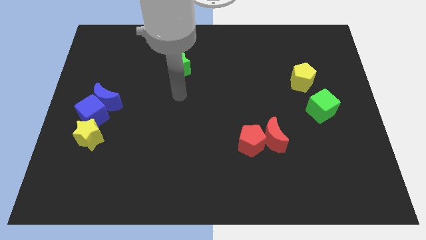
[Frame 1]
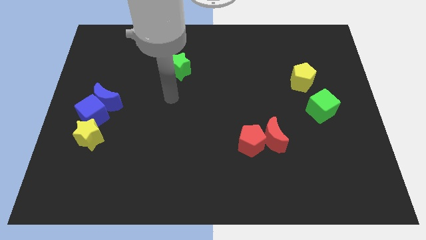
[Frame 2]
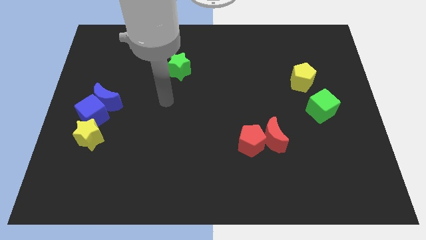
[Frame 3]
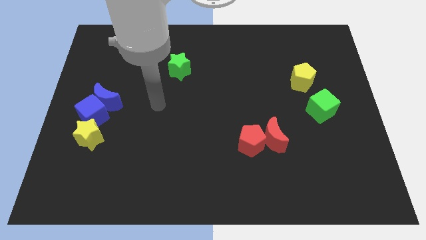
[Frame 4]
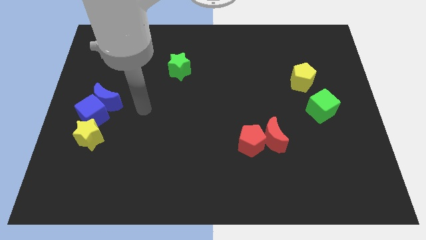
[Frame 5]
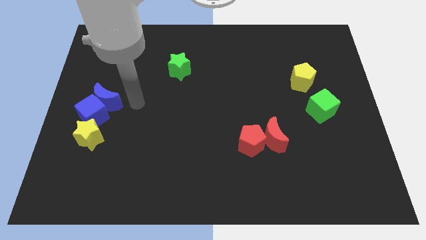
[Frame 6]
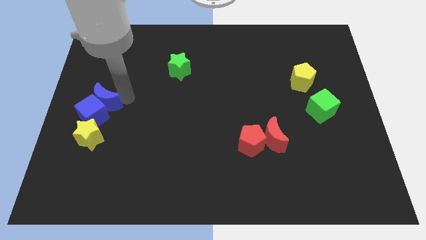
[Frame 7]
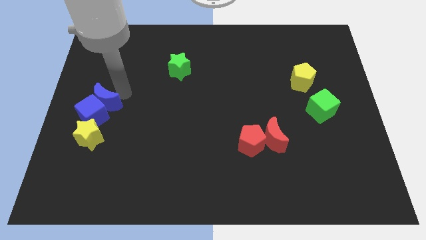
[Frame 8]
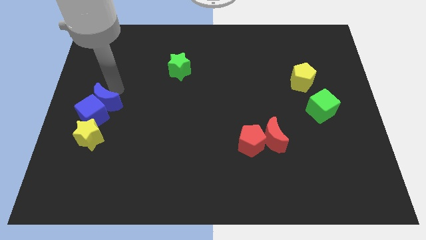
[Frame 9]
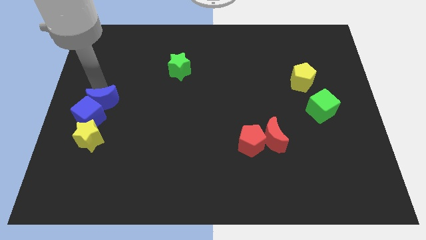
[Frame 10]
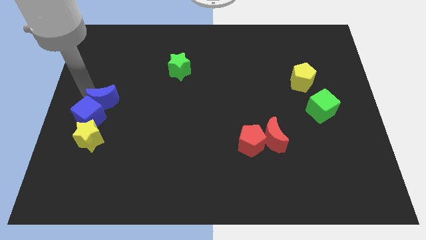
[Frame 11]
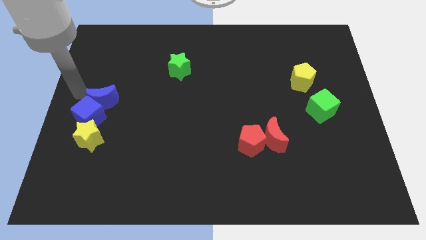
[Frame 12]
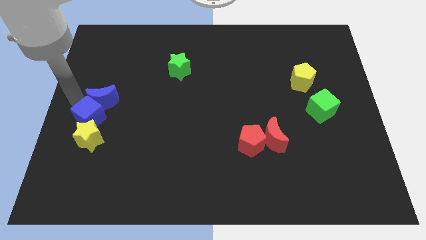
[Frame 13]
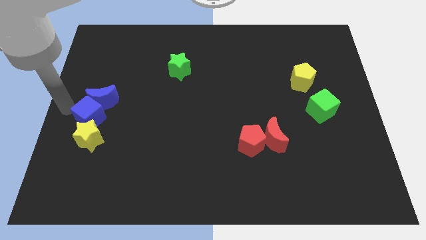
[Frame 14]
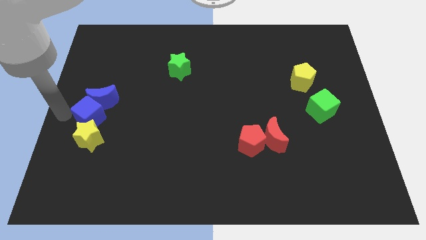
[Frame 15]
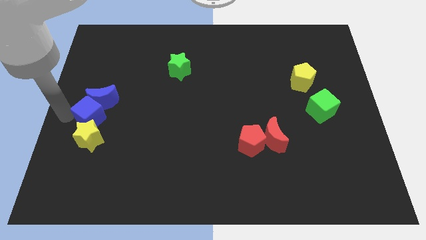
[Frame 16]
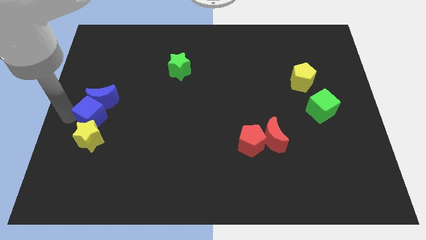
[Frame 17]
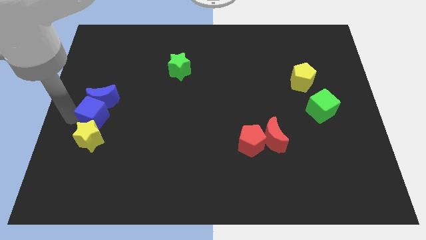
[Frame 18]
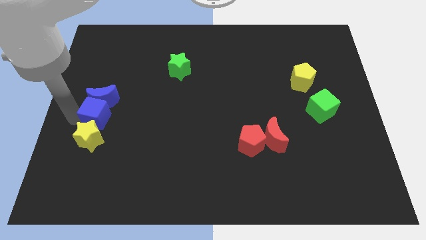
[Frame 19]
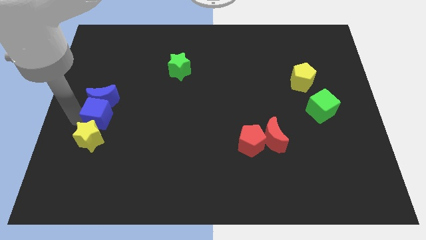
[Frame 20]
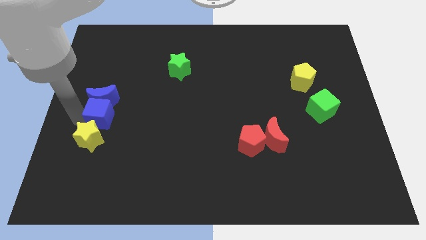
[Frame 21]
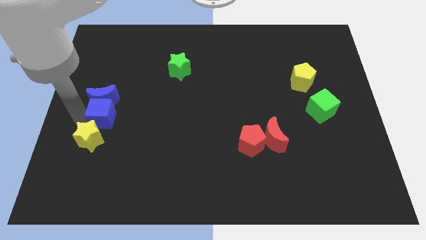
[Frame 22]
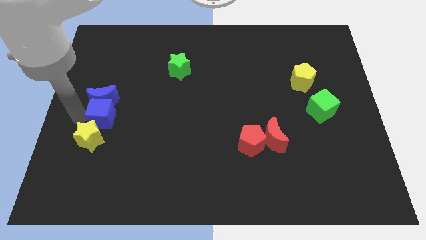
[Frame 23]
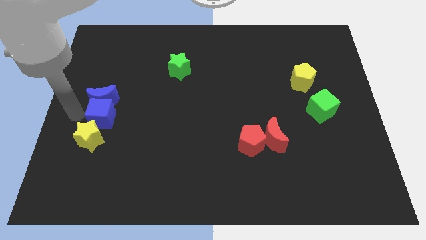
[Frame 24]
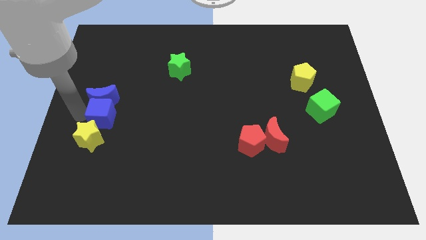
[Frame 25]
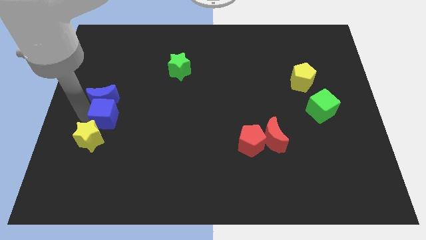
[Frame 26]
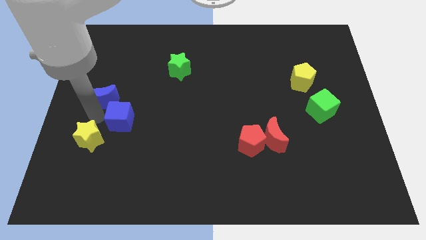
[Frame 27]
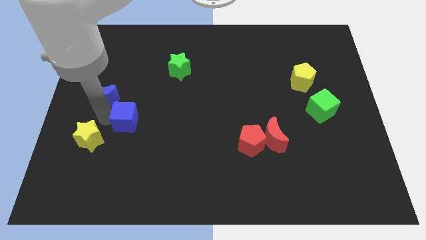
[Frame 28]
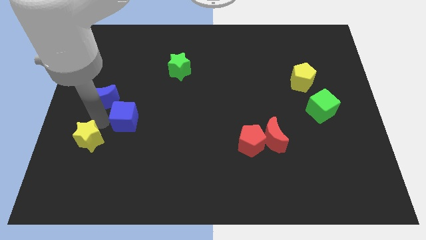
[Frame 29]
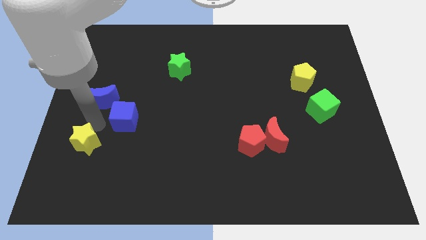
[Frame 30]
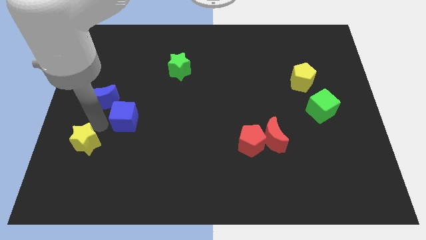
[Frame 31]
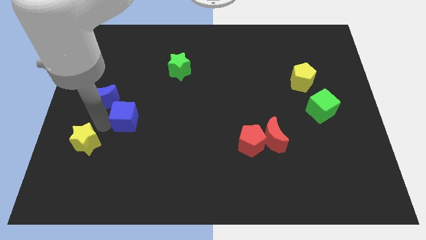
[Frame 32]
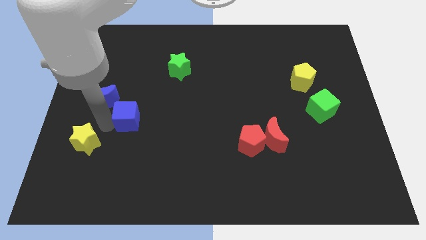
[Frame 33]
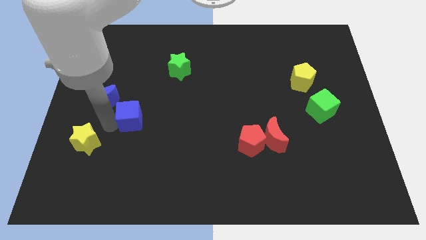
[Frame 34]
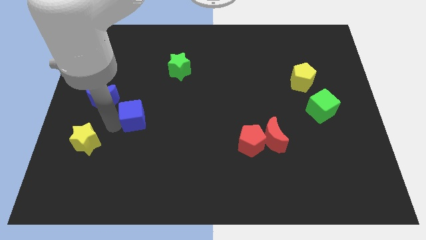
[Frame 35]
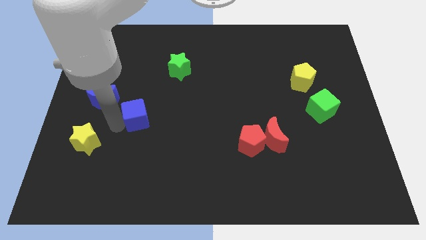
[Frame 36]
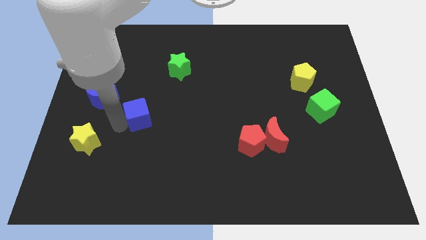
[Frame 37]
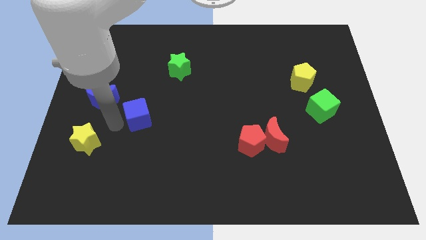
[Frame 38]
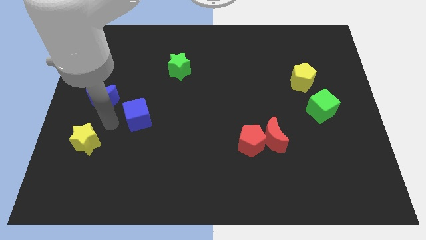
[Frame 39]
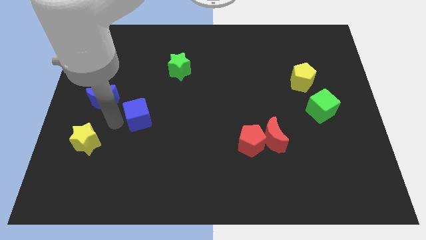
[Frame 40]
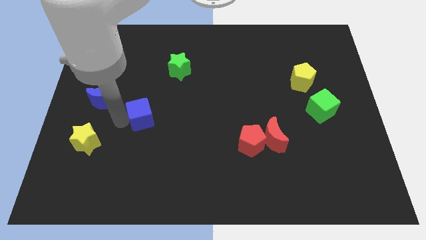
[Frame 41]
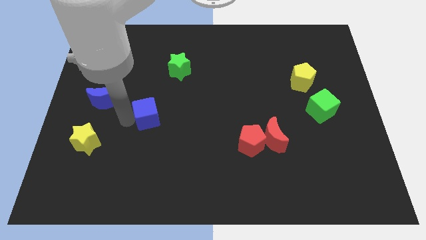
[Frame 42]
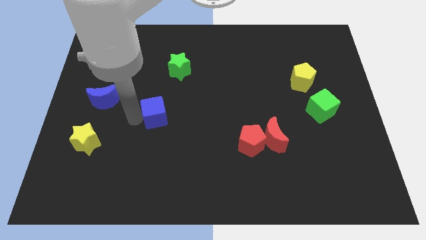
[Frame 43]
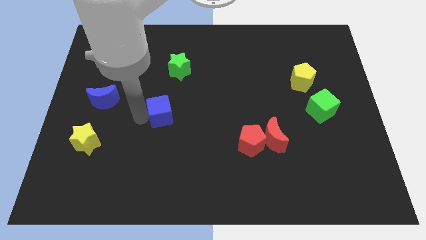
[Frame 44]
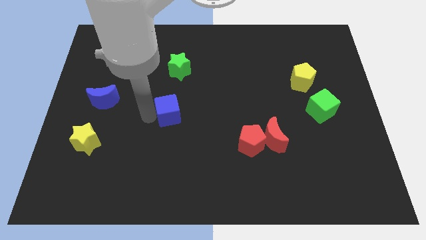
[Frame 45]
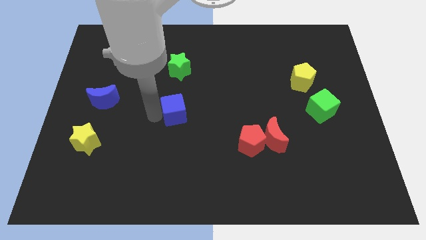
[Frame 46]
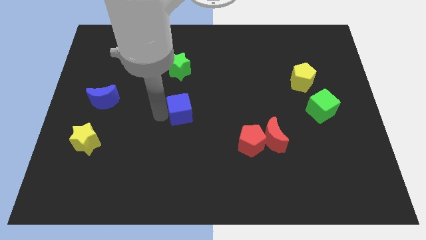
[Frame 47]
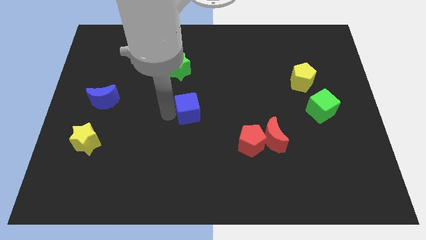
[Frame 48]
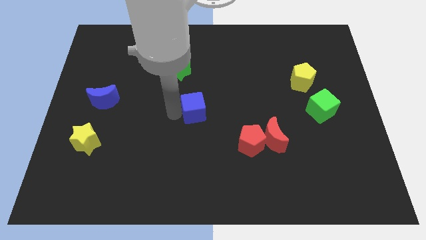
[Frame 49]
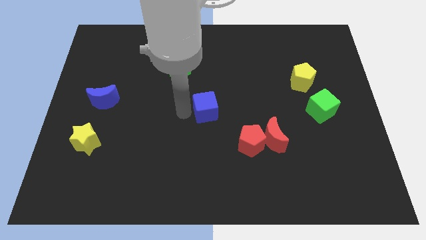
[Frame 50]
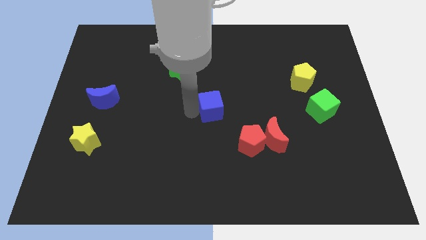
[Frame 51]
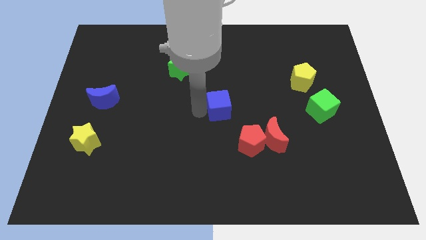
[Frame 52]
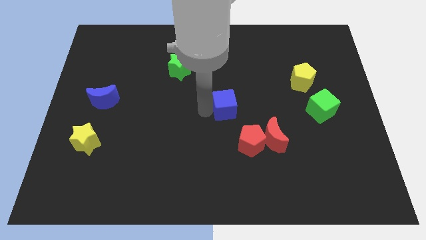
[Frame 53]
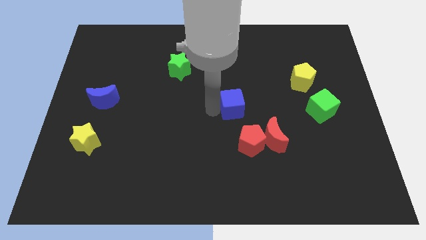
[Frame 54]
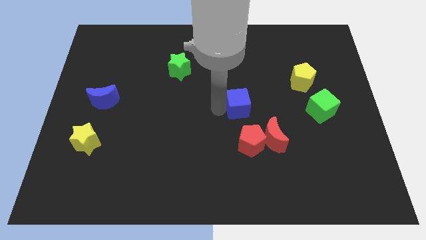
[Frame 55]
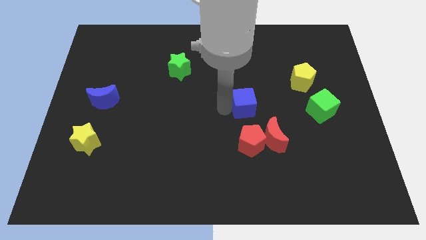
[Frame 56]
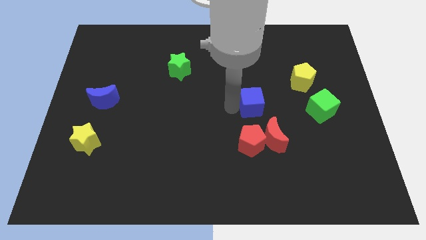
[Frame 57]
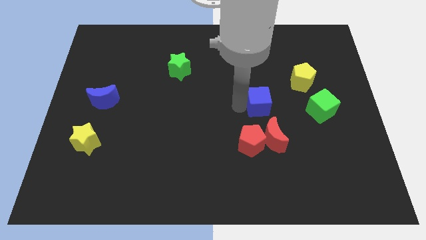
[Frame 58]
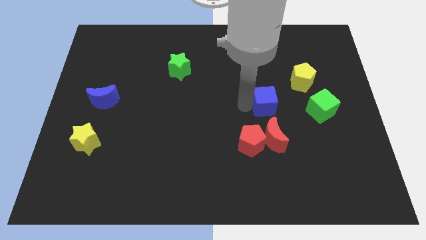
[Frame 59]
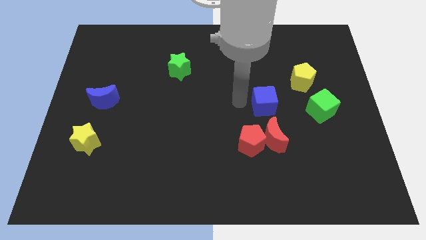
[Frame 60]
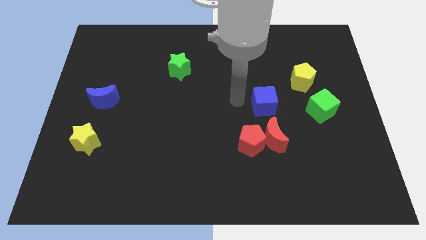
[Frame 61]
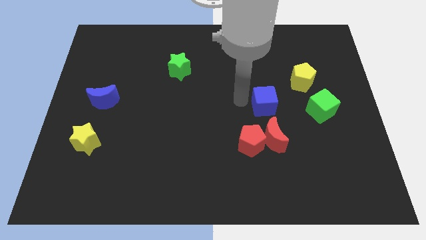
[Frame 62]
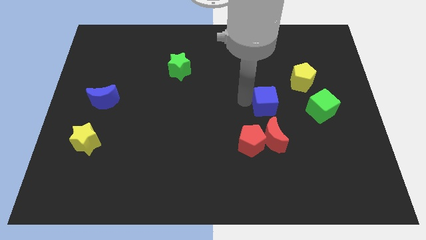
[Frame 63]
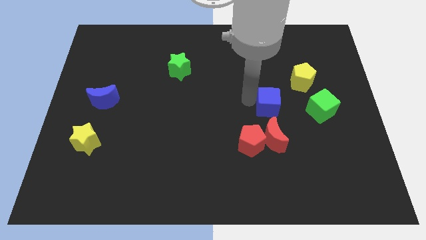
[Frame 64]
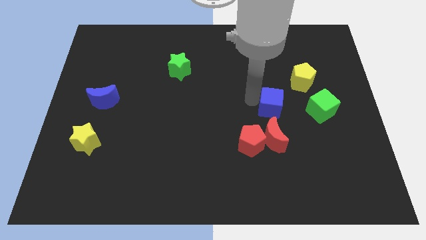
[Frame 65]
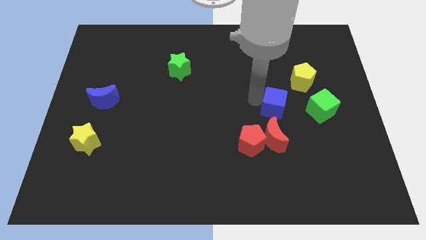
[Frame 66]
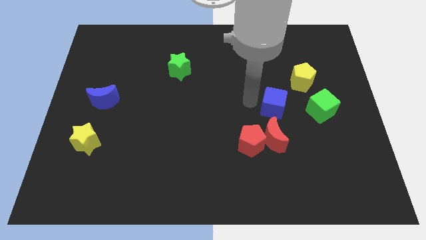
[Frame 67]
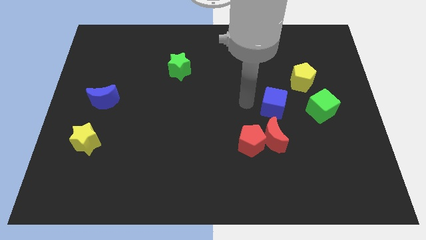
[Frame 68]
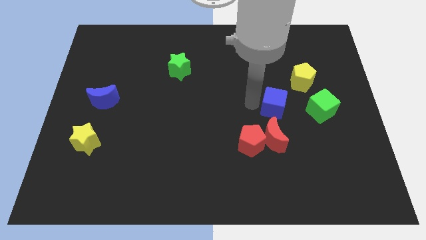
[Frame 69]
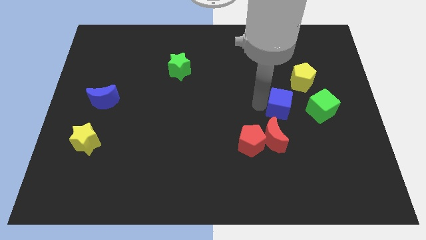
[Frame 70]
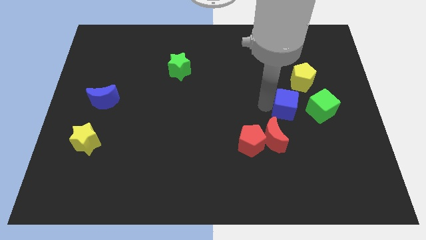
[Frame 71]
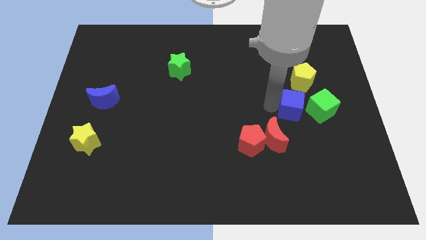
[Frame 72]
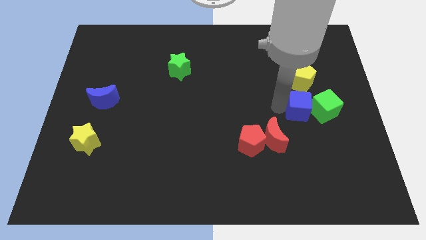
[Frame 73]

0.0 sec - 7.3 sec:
put the blue cube towards the green cube

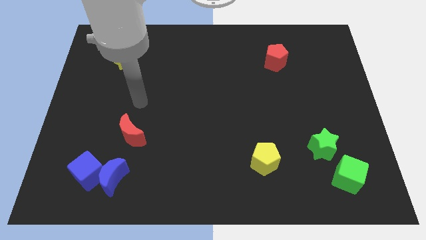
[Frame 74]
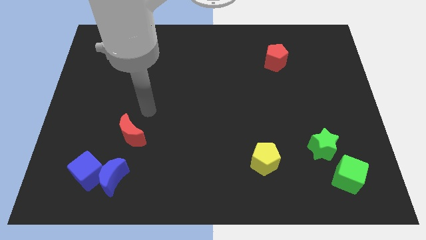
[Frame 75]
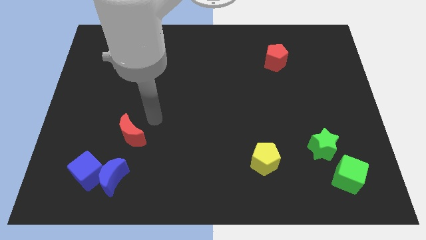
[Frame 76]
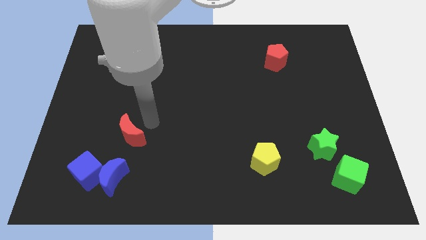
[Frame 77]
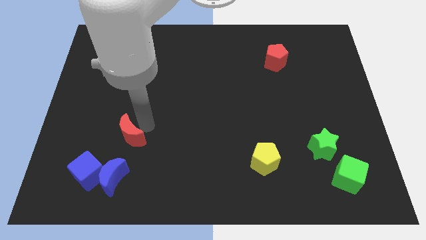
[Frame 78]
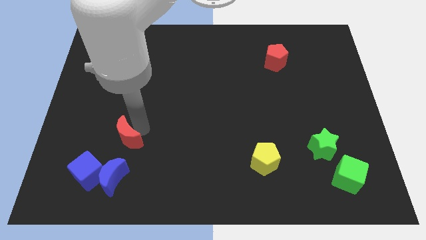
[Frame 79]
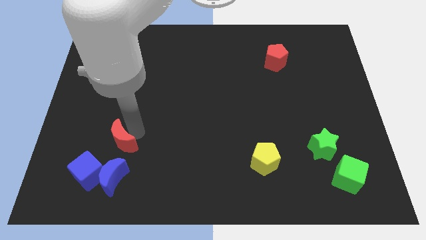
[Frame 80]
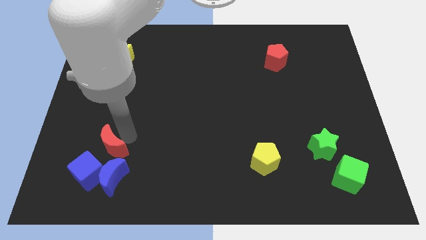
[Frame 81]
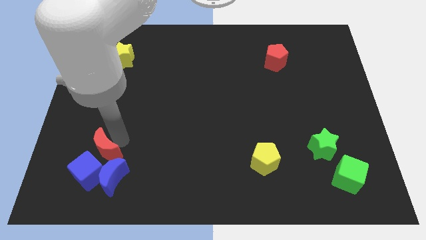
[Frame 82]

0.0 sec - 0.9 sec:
push the red moon to the blue cube
